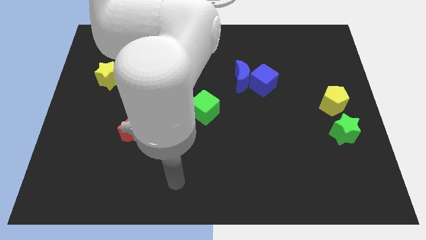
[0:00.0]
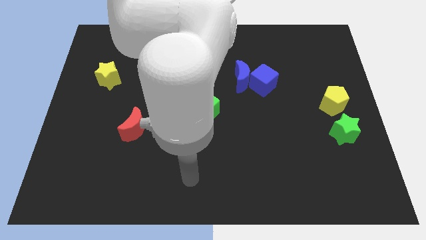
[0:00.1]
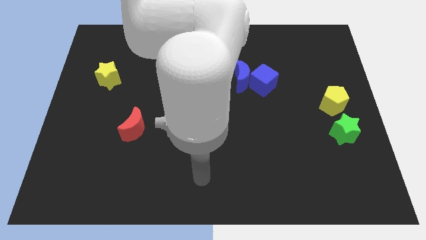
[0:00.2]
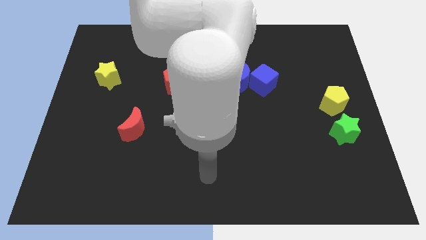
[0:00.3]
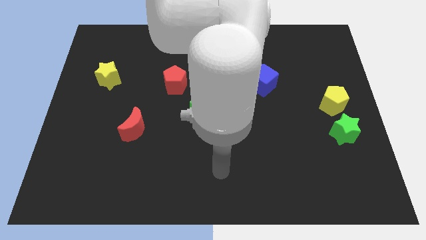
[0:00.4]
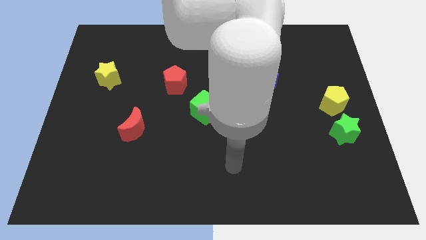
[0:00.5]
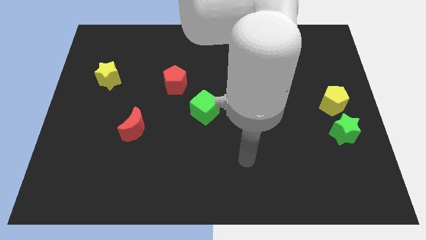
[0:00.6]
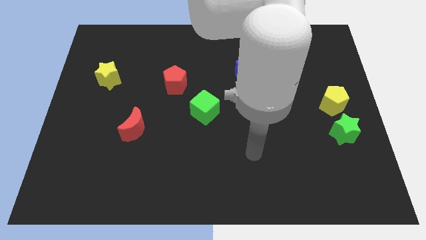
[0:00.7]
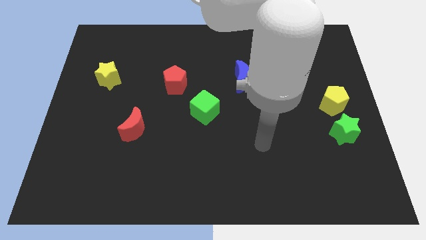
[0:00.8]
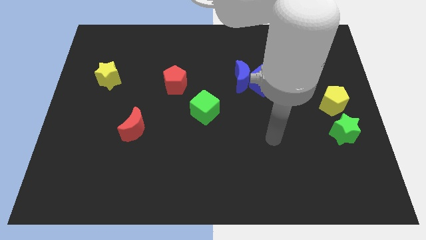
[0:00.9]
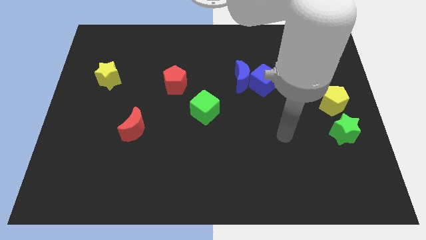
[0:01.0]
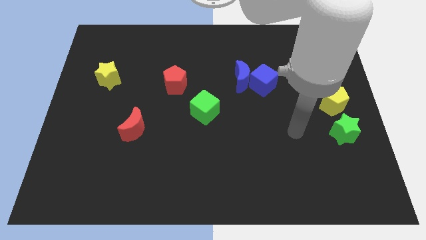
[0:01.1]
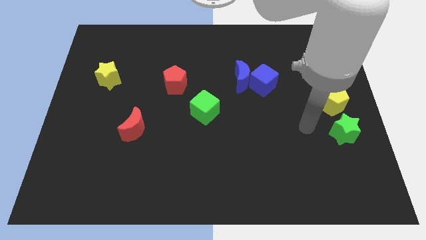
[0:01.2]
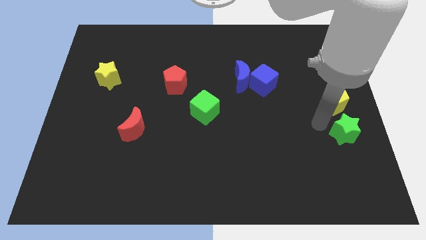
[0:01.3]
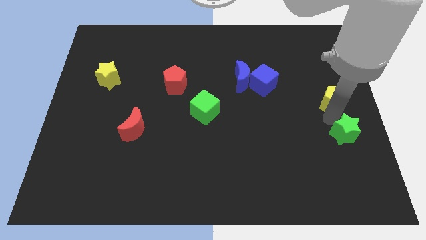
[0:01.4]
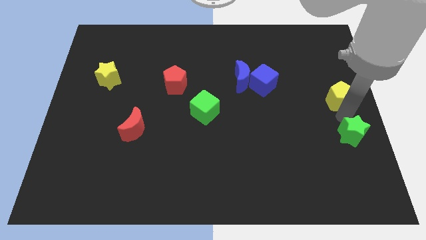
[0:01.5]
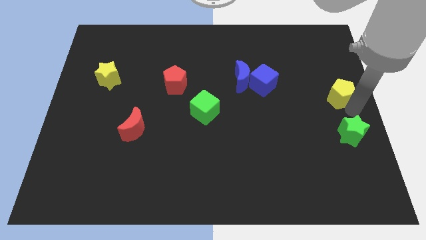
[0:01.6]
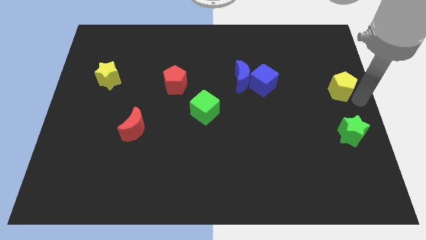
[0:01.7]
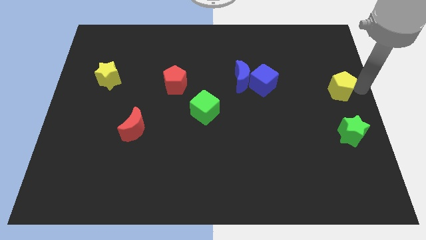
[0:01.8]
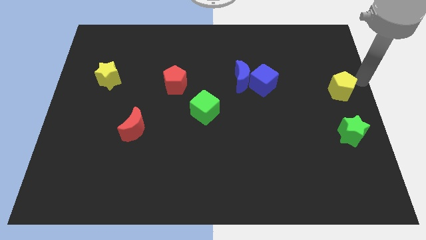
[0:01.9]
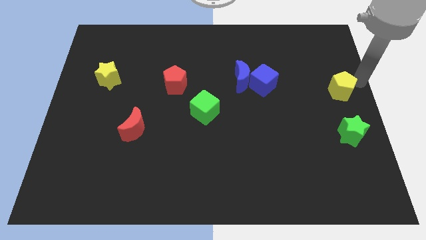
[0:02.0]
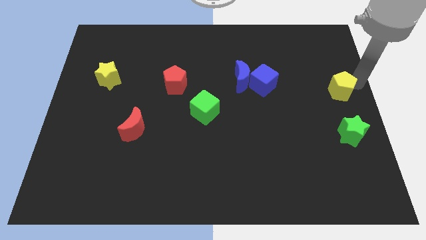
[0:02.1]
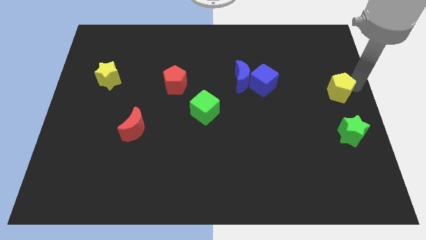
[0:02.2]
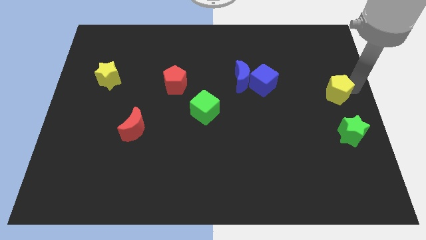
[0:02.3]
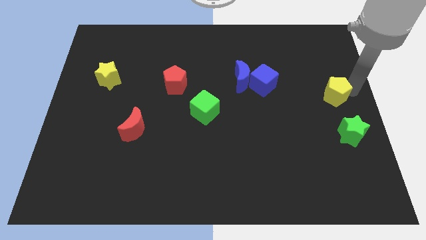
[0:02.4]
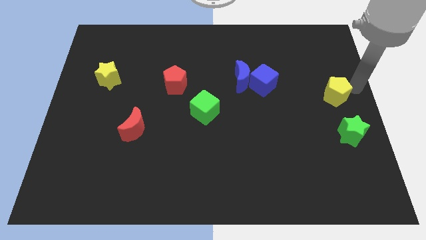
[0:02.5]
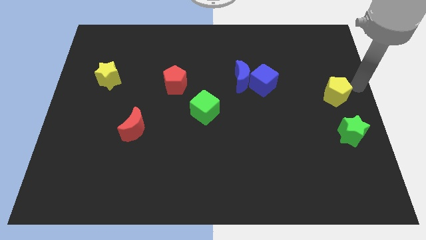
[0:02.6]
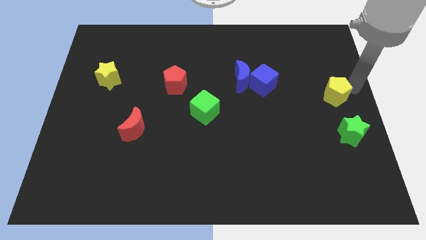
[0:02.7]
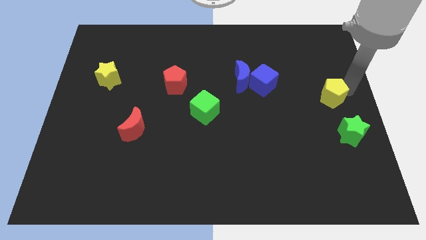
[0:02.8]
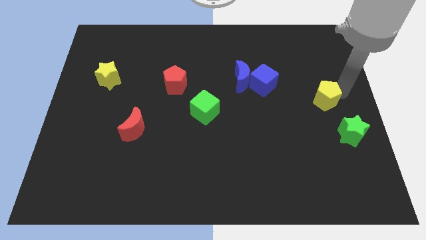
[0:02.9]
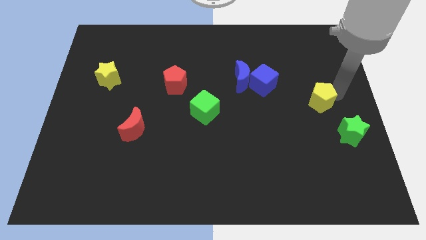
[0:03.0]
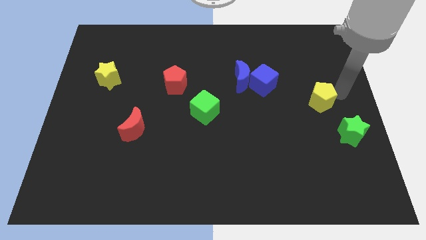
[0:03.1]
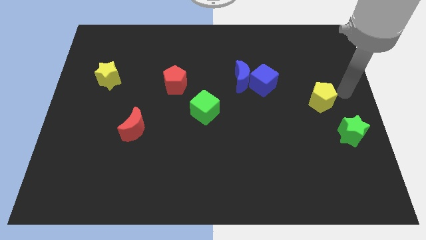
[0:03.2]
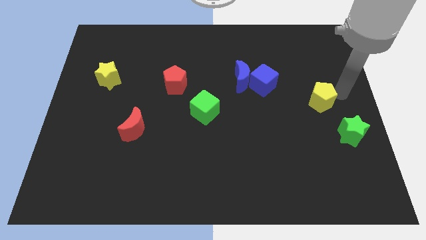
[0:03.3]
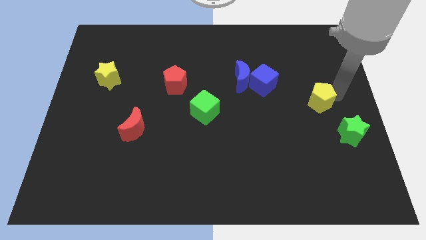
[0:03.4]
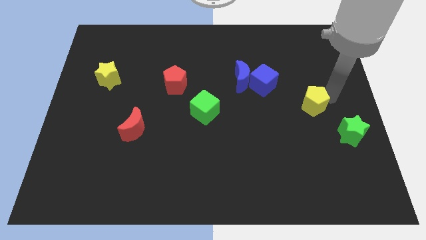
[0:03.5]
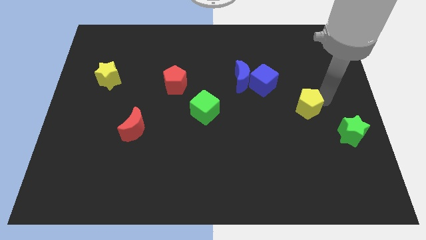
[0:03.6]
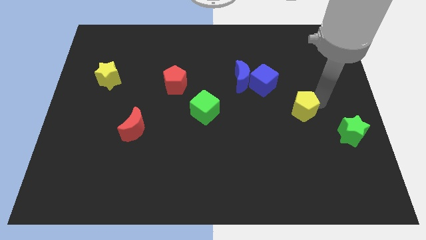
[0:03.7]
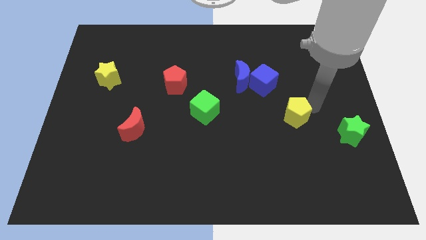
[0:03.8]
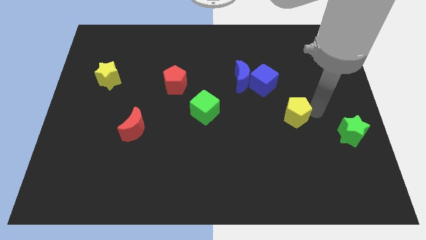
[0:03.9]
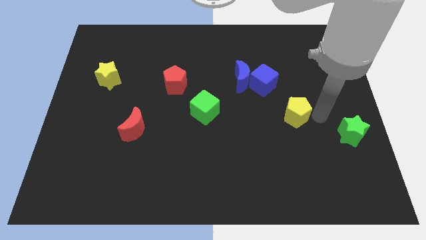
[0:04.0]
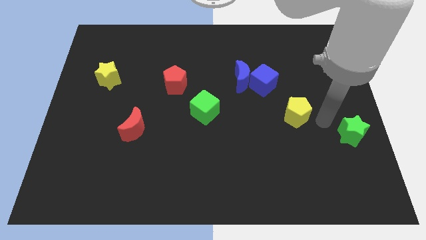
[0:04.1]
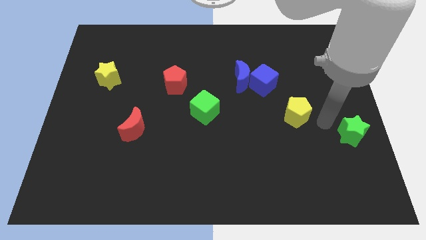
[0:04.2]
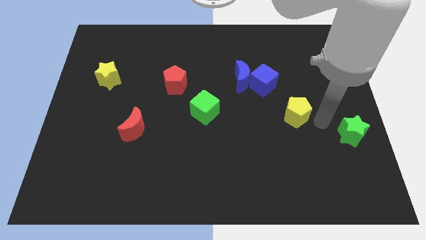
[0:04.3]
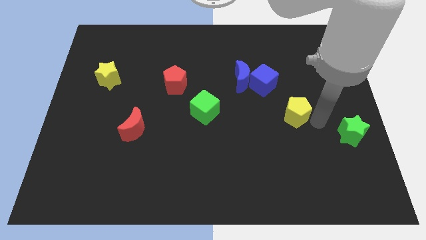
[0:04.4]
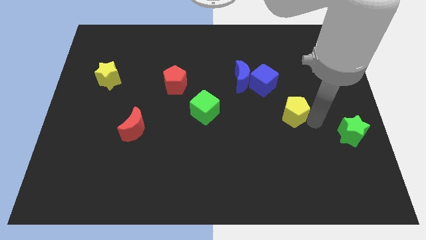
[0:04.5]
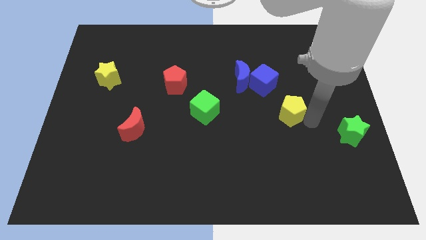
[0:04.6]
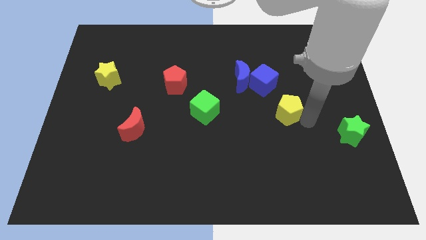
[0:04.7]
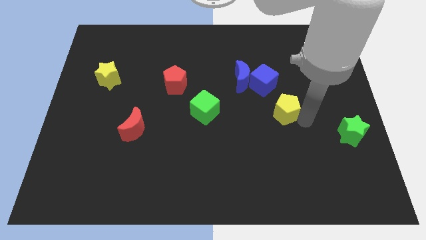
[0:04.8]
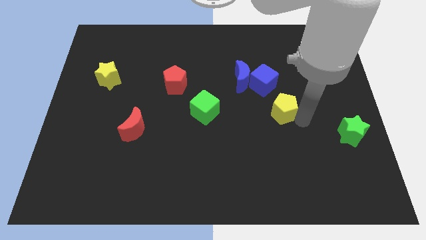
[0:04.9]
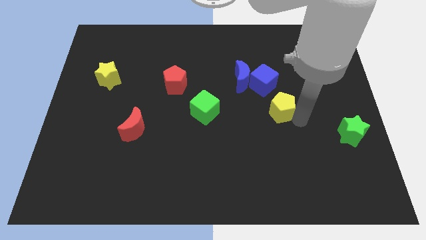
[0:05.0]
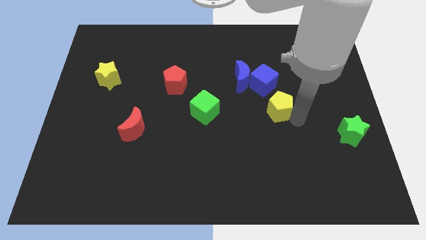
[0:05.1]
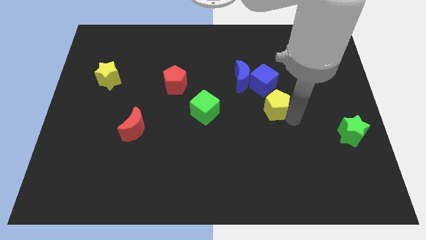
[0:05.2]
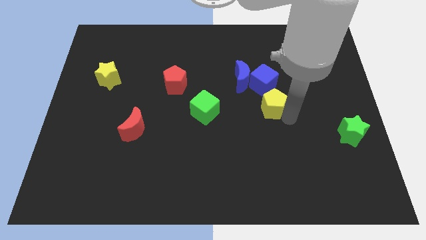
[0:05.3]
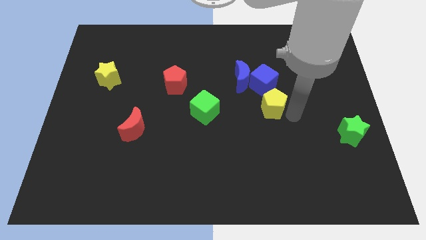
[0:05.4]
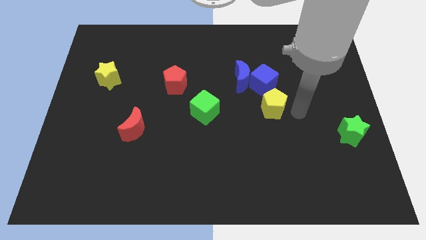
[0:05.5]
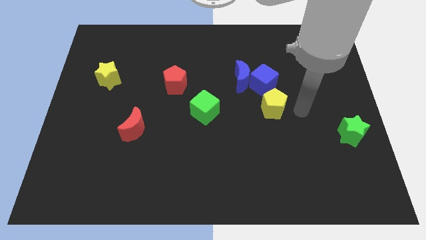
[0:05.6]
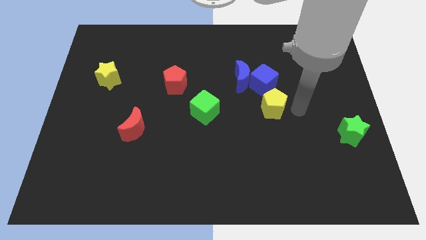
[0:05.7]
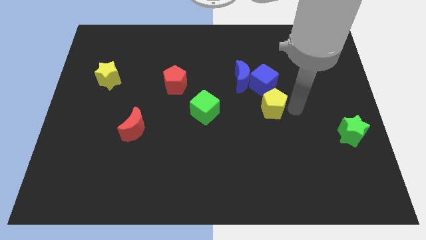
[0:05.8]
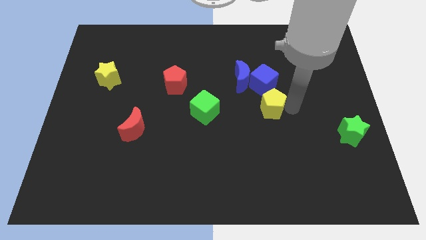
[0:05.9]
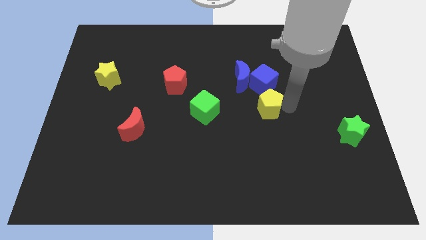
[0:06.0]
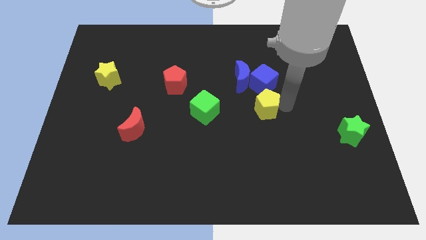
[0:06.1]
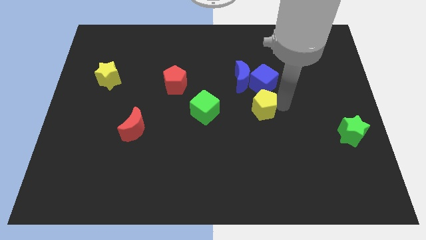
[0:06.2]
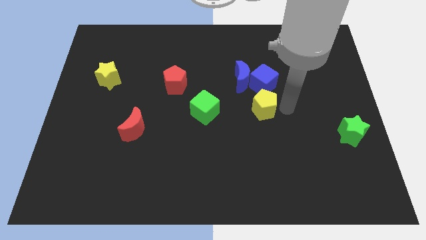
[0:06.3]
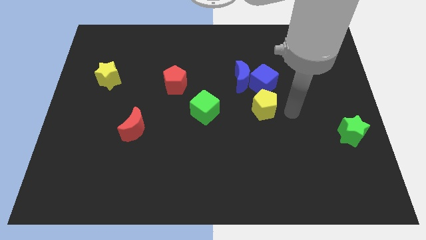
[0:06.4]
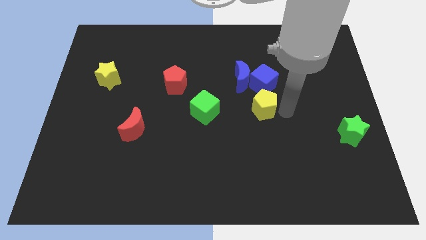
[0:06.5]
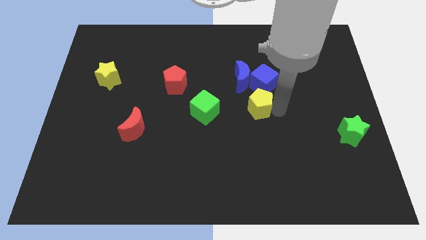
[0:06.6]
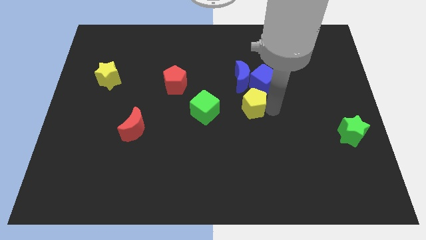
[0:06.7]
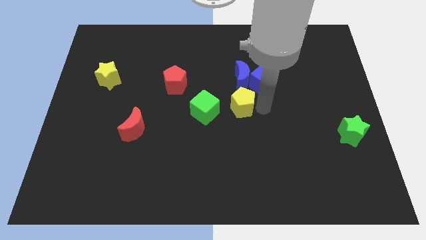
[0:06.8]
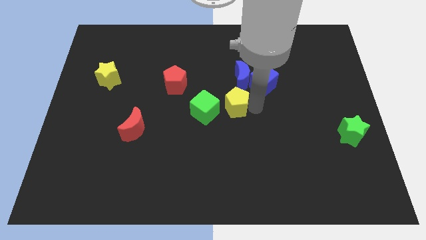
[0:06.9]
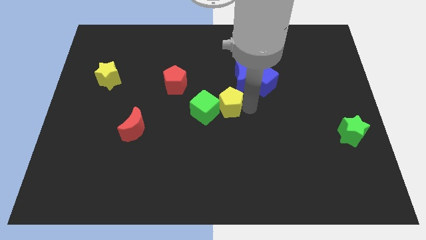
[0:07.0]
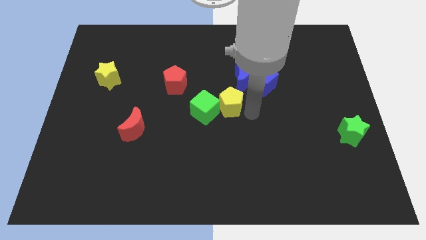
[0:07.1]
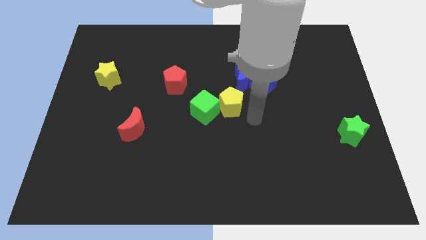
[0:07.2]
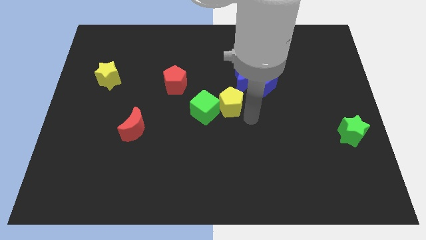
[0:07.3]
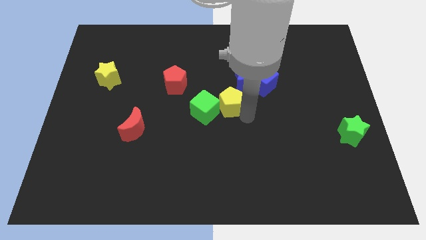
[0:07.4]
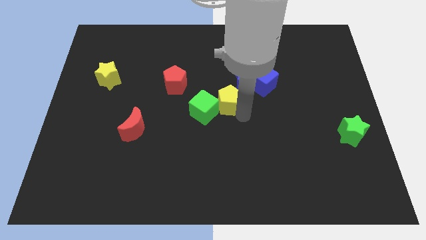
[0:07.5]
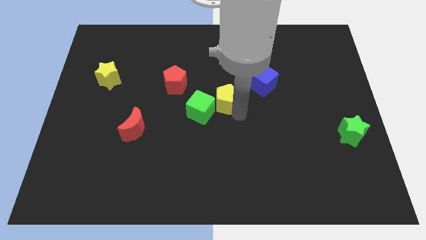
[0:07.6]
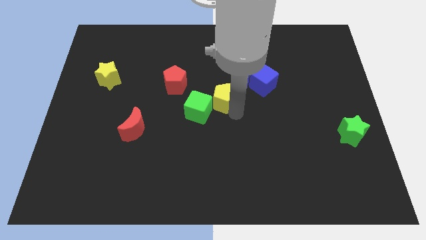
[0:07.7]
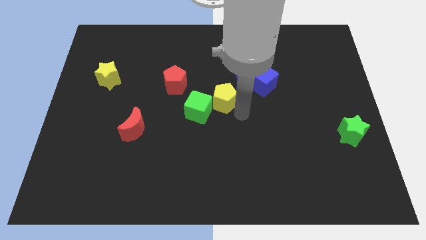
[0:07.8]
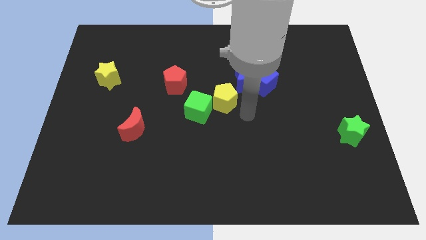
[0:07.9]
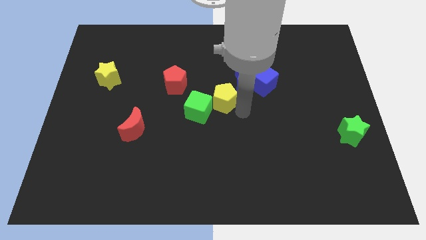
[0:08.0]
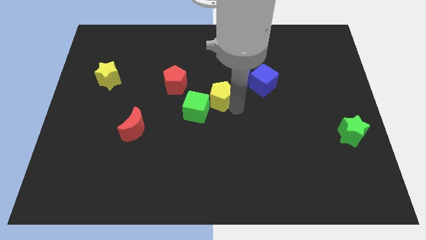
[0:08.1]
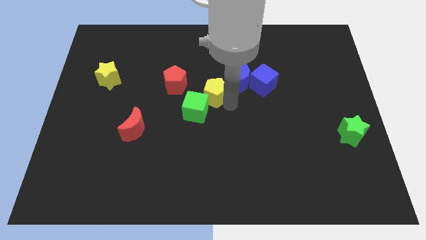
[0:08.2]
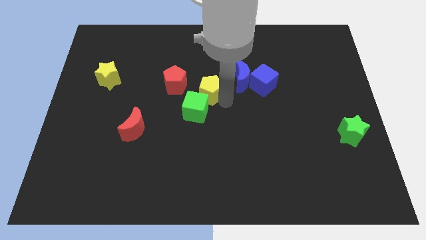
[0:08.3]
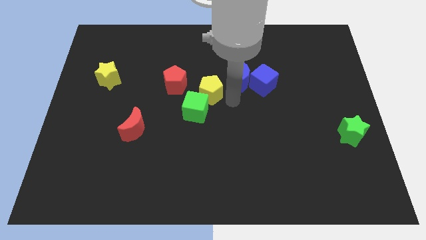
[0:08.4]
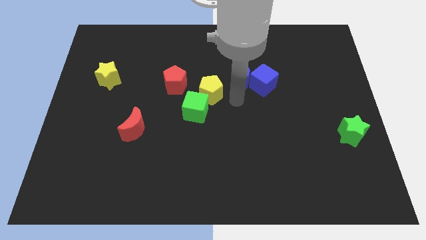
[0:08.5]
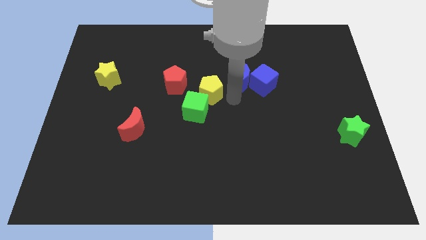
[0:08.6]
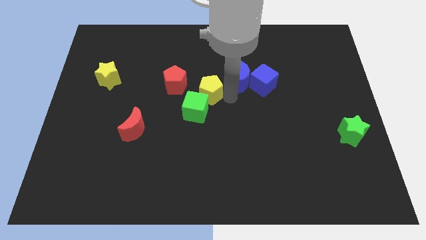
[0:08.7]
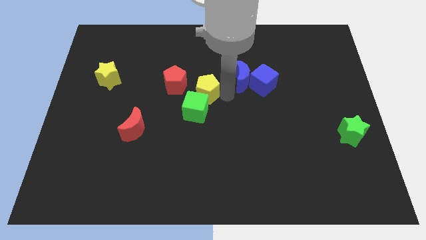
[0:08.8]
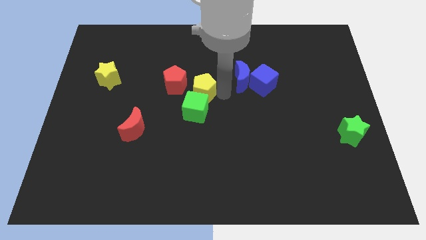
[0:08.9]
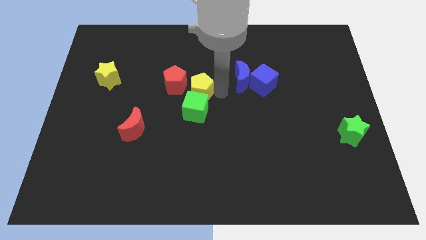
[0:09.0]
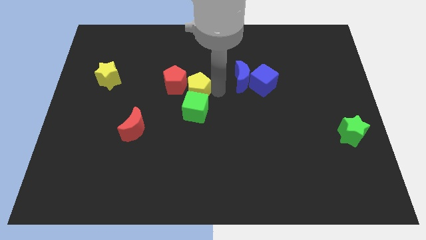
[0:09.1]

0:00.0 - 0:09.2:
move the yellow pentagon to the red pentagon
